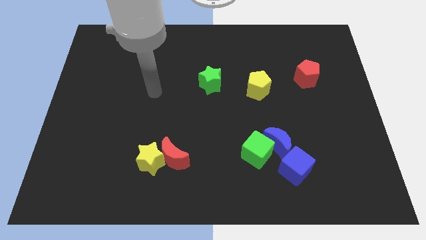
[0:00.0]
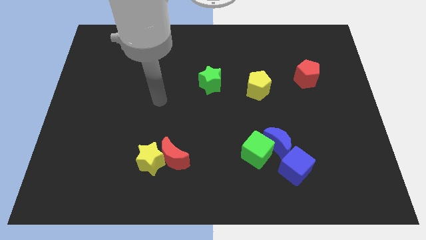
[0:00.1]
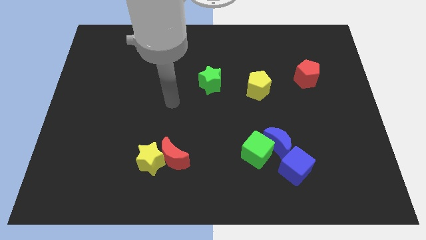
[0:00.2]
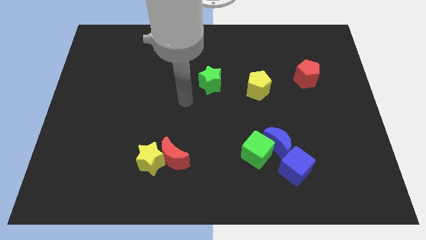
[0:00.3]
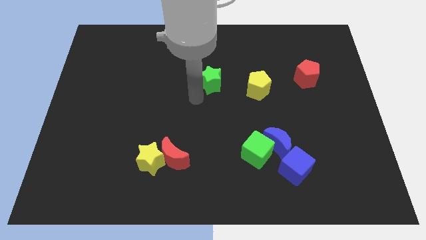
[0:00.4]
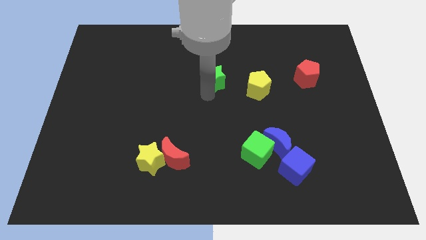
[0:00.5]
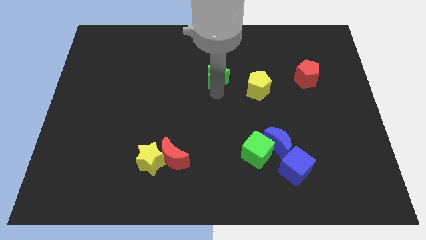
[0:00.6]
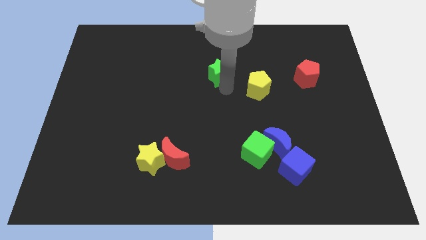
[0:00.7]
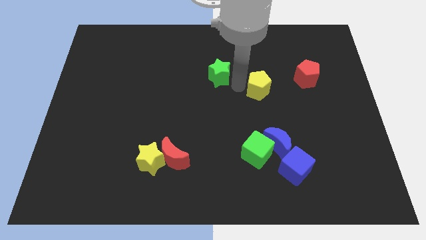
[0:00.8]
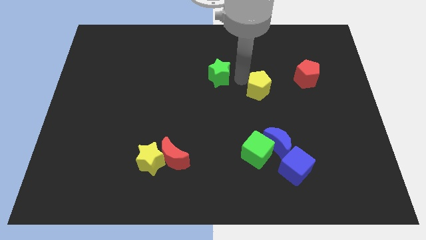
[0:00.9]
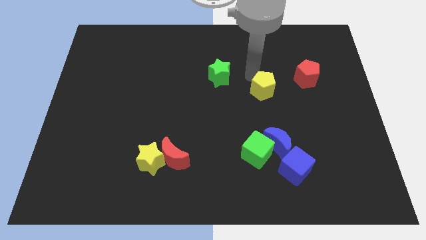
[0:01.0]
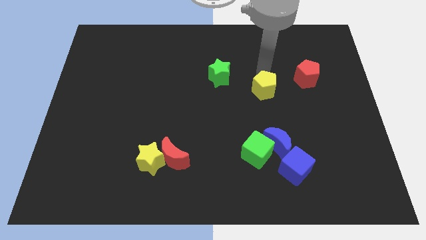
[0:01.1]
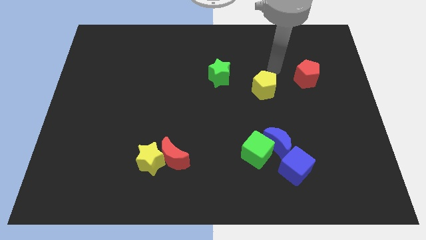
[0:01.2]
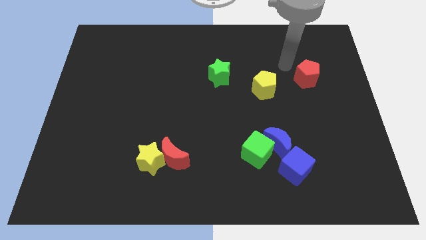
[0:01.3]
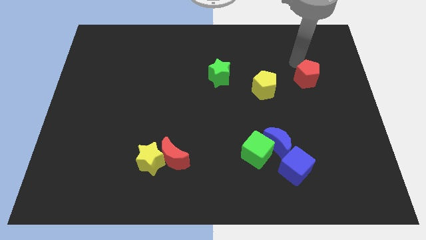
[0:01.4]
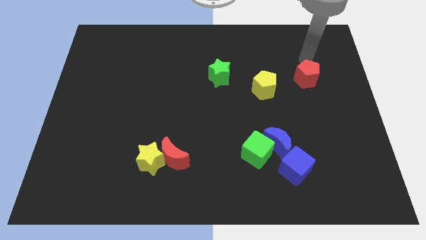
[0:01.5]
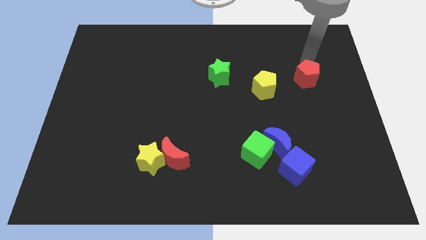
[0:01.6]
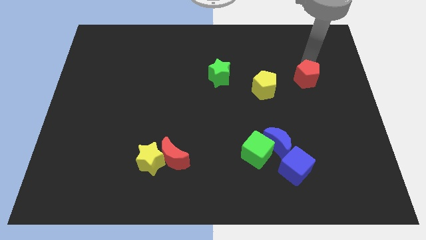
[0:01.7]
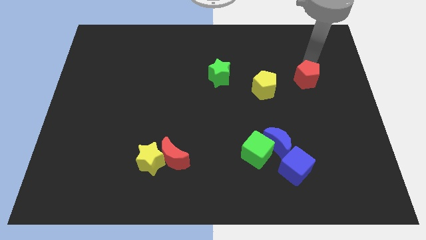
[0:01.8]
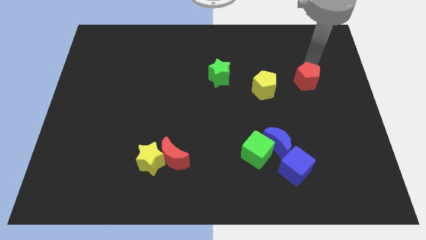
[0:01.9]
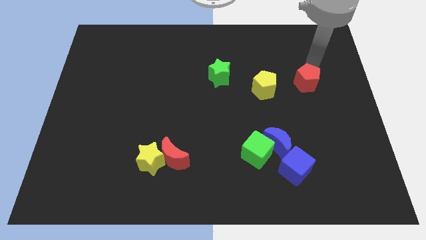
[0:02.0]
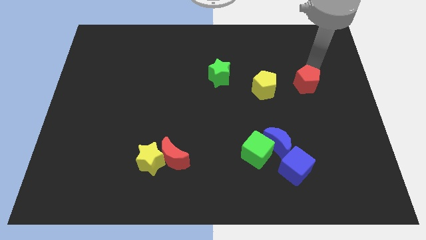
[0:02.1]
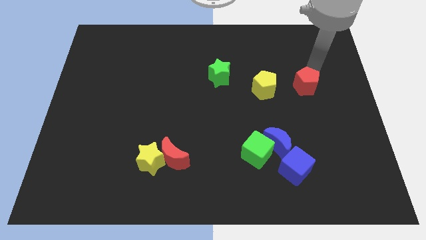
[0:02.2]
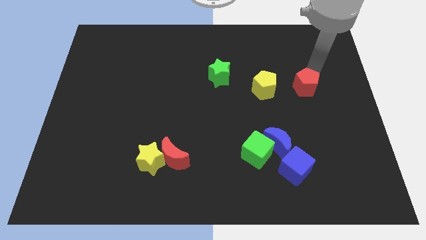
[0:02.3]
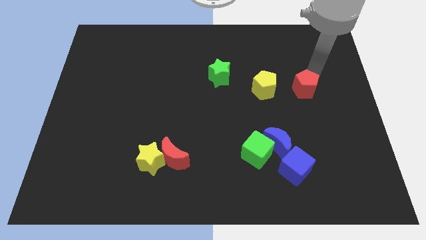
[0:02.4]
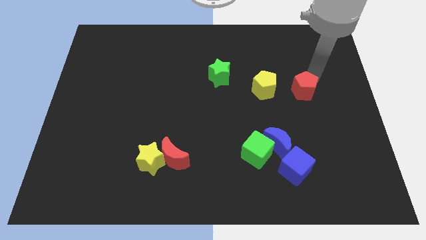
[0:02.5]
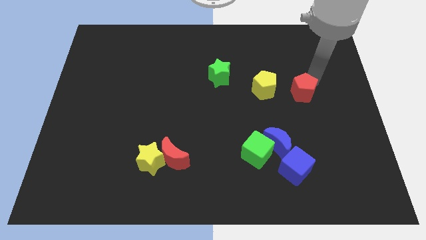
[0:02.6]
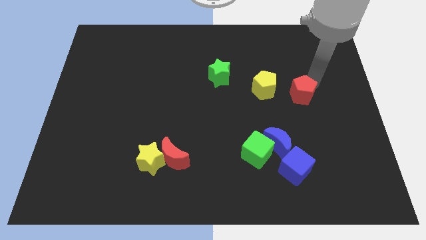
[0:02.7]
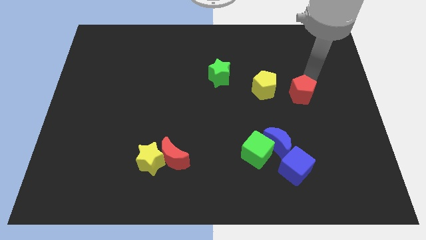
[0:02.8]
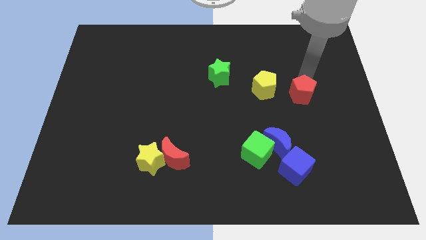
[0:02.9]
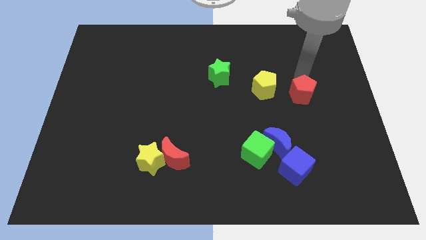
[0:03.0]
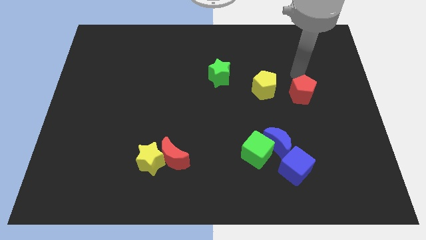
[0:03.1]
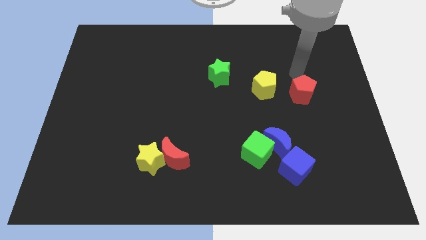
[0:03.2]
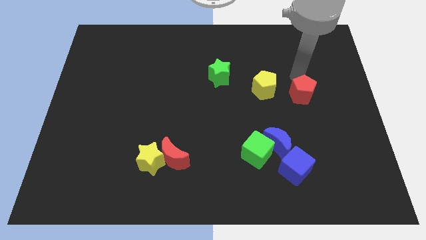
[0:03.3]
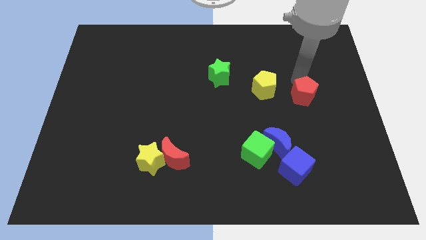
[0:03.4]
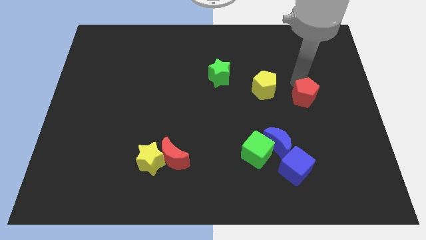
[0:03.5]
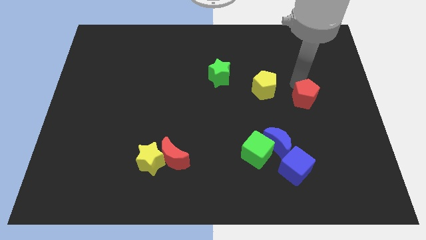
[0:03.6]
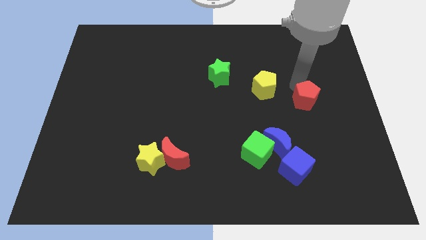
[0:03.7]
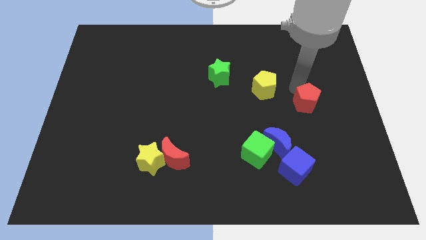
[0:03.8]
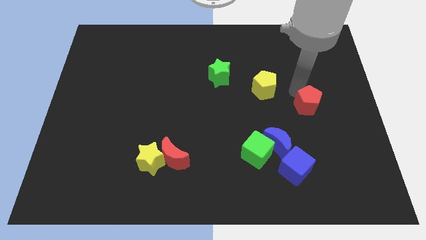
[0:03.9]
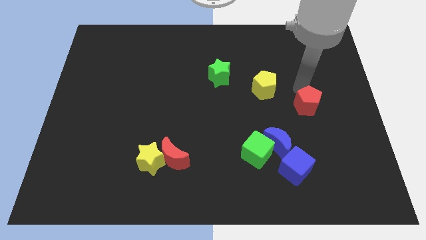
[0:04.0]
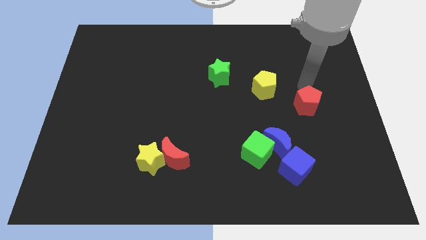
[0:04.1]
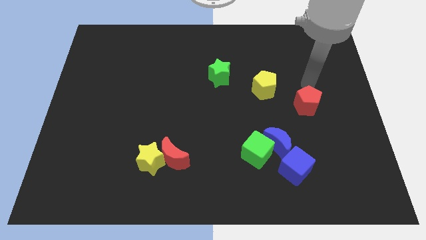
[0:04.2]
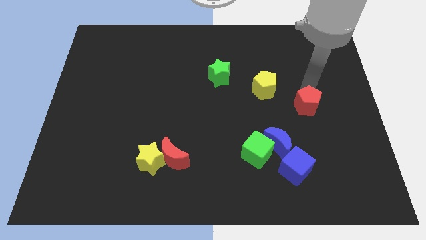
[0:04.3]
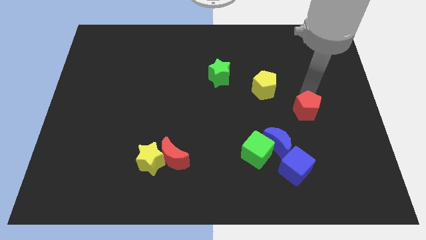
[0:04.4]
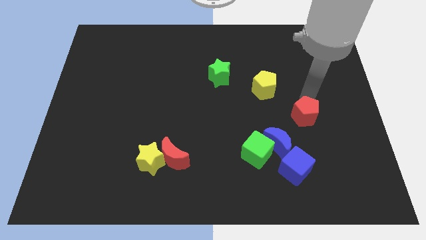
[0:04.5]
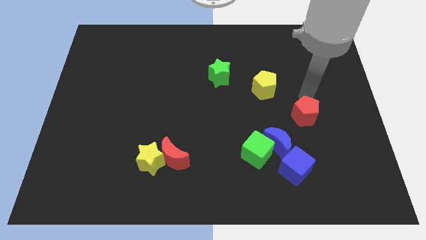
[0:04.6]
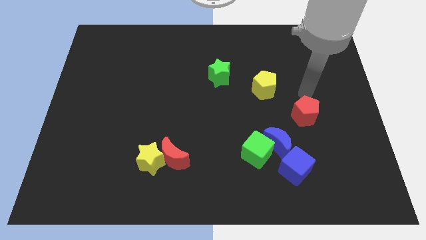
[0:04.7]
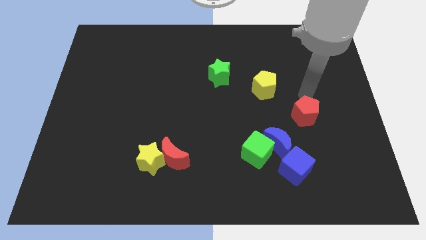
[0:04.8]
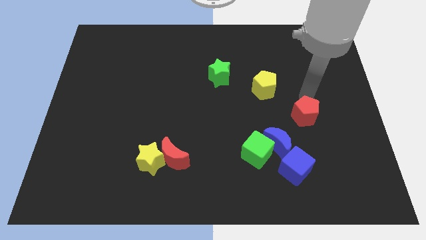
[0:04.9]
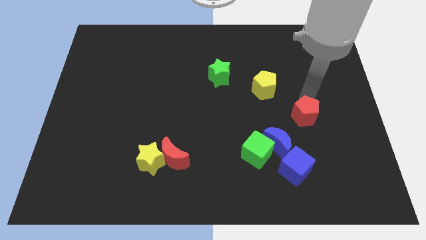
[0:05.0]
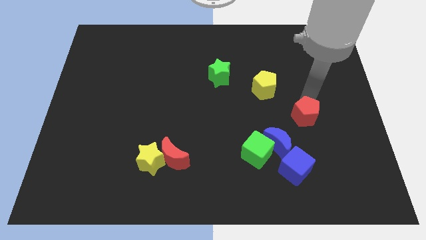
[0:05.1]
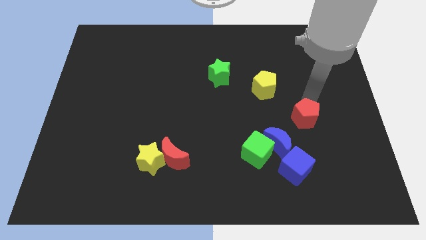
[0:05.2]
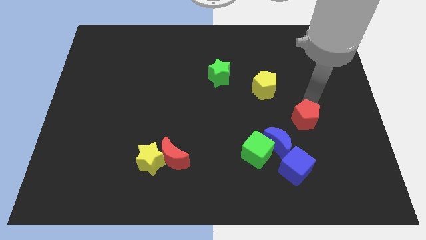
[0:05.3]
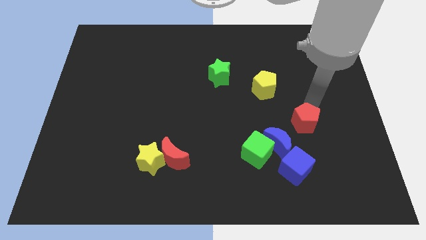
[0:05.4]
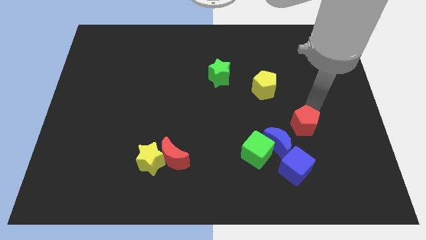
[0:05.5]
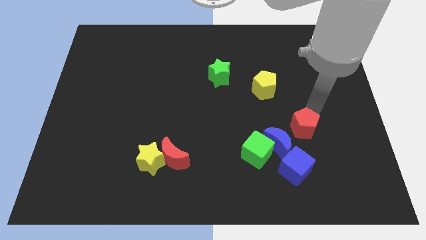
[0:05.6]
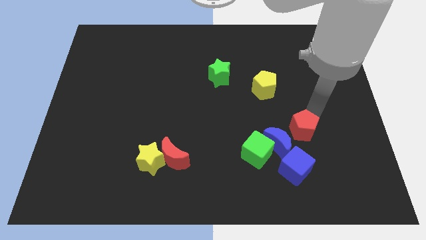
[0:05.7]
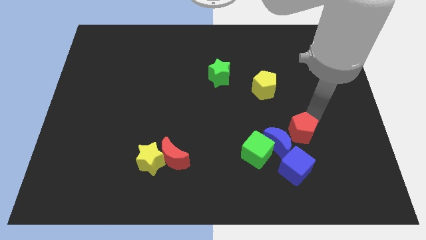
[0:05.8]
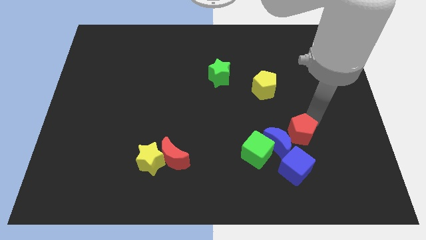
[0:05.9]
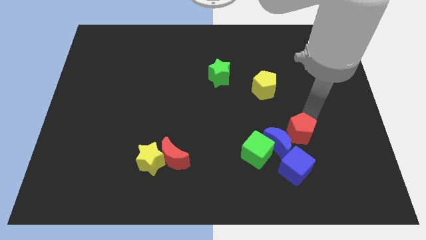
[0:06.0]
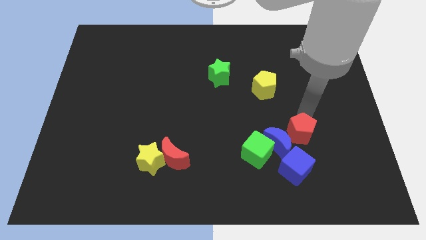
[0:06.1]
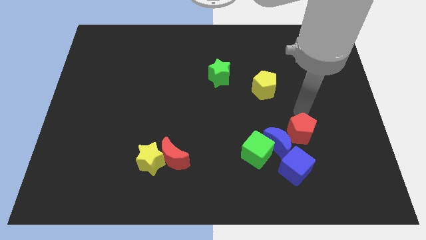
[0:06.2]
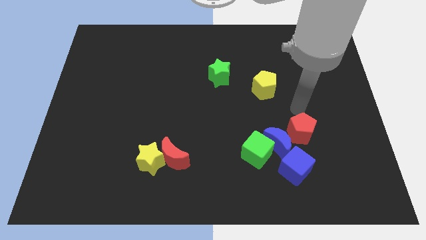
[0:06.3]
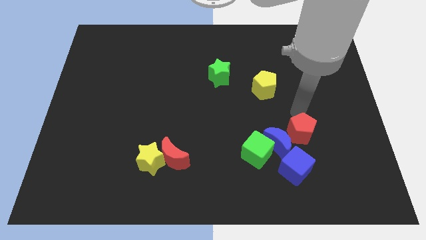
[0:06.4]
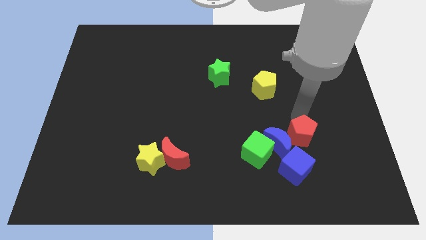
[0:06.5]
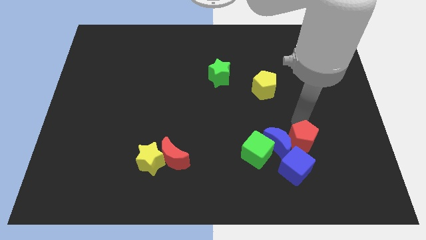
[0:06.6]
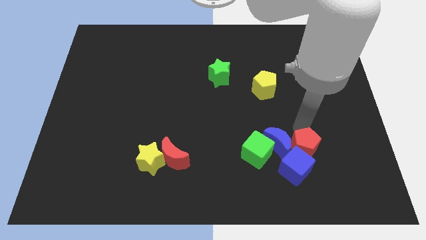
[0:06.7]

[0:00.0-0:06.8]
push the red pentagon close to the blue cube

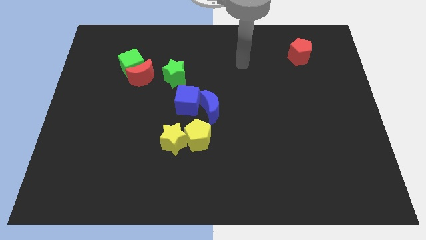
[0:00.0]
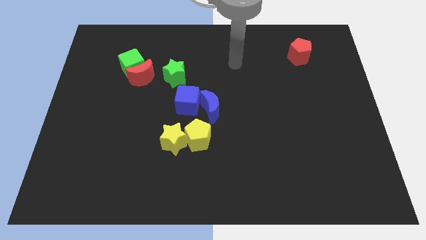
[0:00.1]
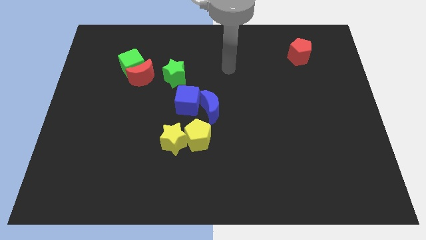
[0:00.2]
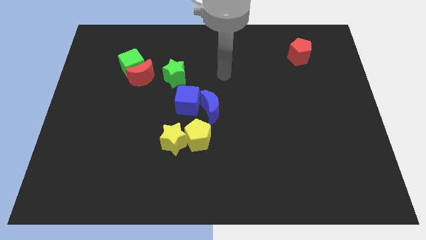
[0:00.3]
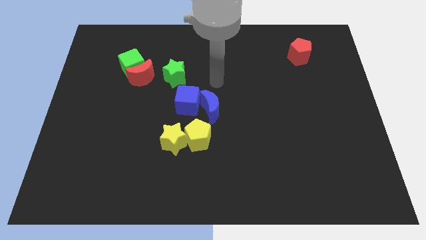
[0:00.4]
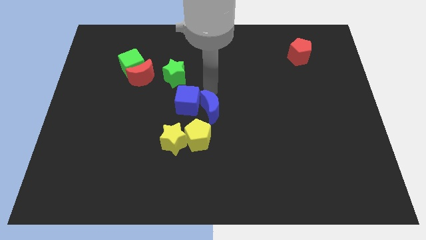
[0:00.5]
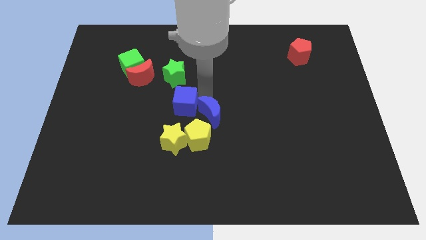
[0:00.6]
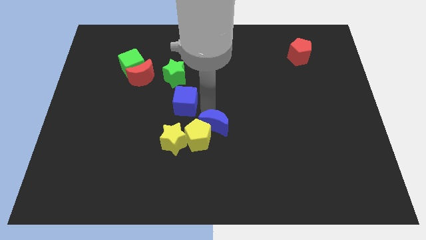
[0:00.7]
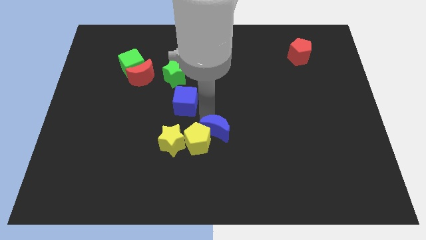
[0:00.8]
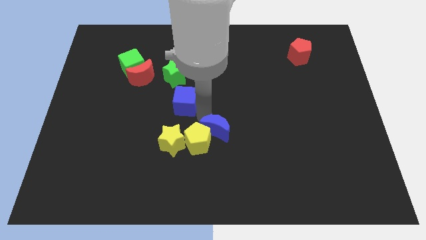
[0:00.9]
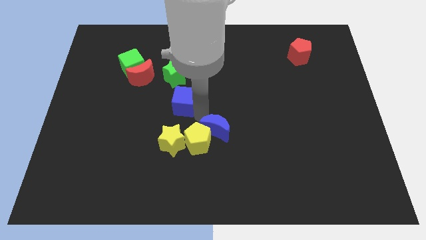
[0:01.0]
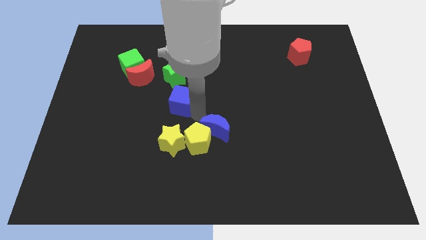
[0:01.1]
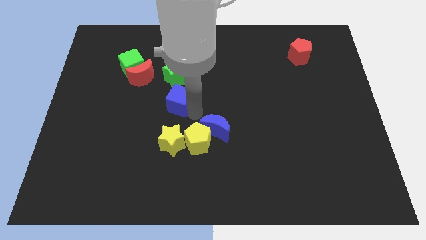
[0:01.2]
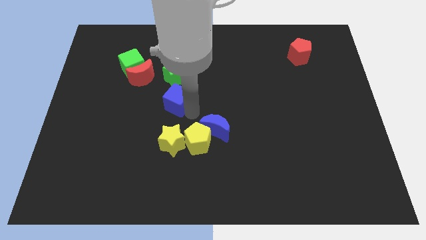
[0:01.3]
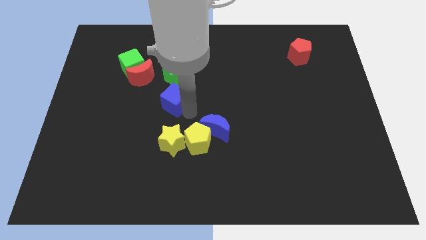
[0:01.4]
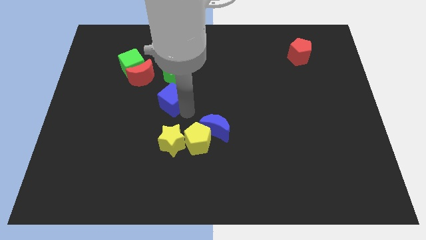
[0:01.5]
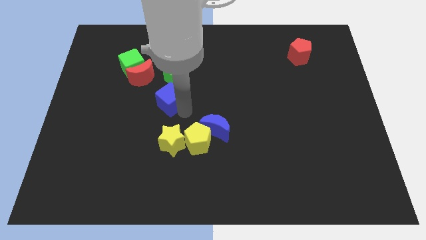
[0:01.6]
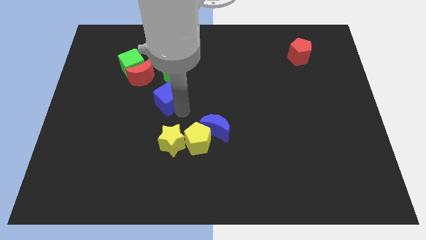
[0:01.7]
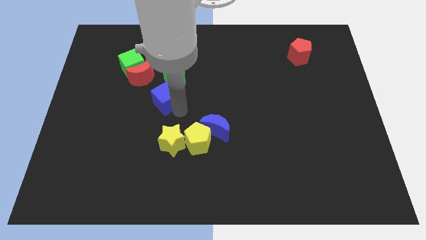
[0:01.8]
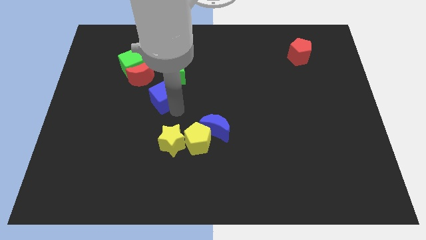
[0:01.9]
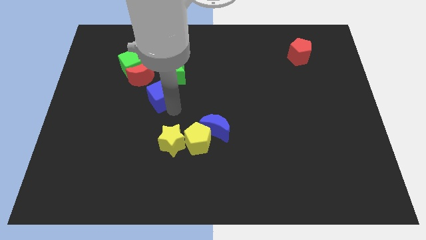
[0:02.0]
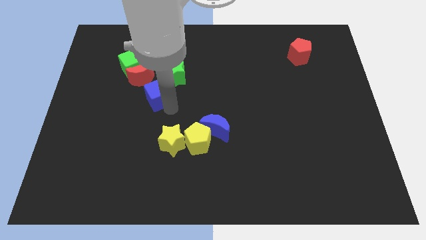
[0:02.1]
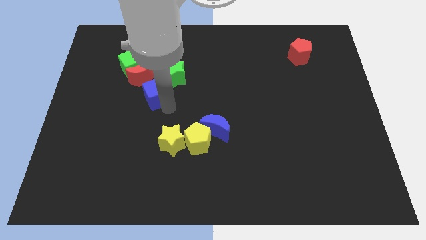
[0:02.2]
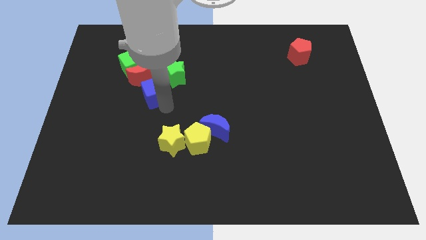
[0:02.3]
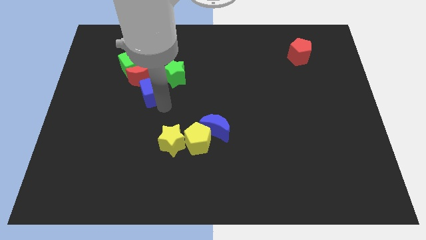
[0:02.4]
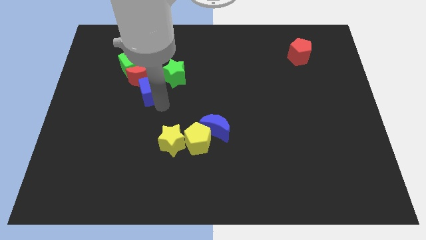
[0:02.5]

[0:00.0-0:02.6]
put the blue cube to the red moon
